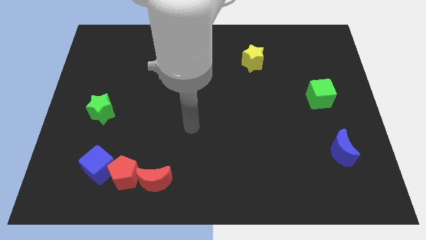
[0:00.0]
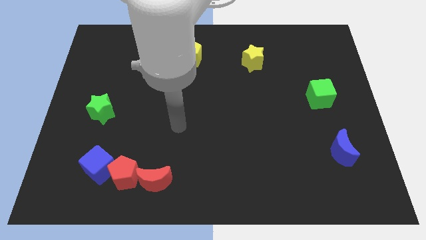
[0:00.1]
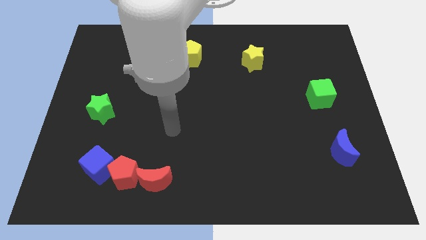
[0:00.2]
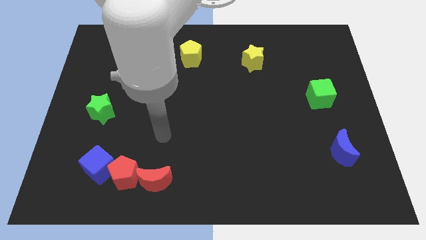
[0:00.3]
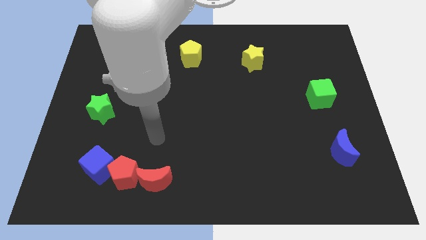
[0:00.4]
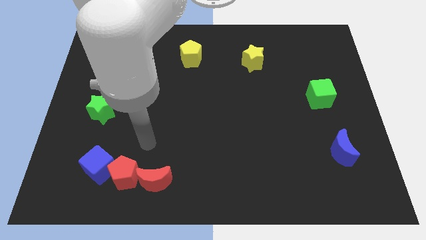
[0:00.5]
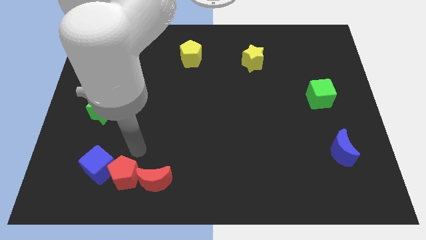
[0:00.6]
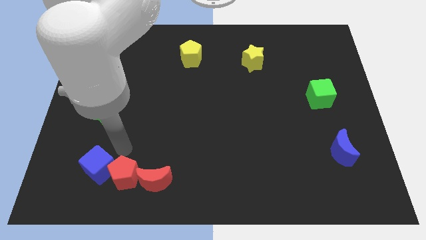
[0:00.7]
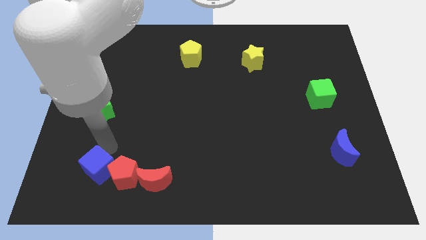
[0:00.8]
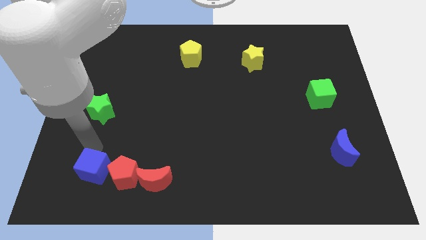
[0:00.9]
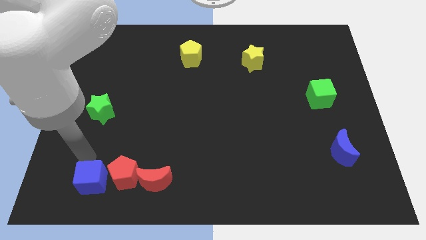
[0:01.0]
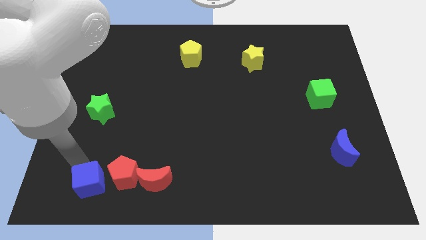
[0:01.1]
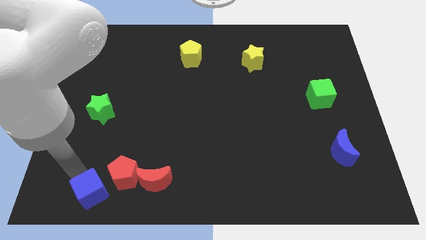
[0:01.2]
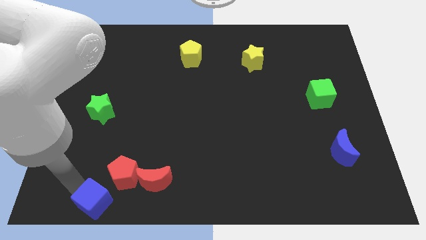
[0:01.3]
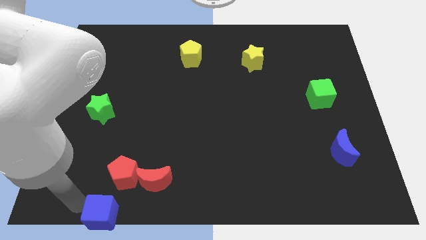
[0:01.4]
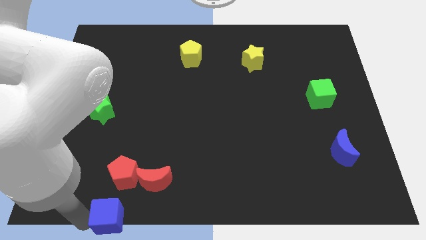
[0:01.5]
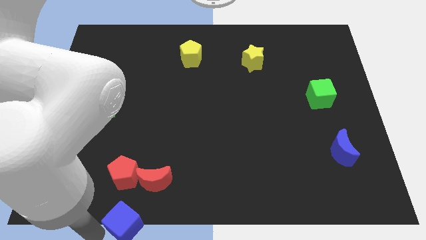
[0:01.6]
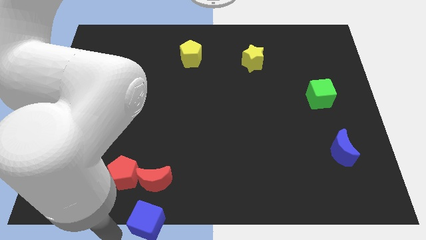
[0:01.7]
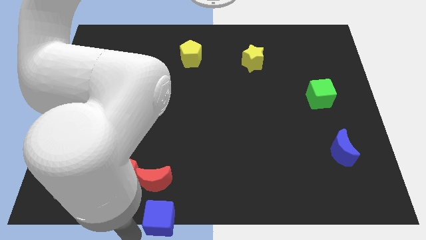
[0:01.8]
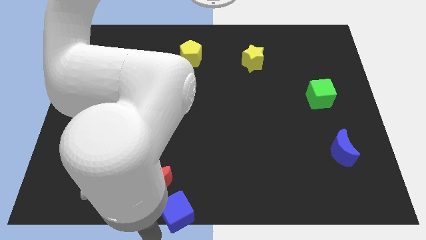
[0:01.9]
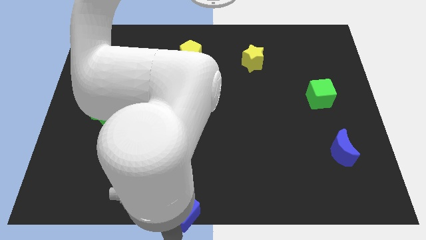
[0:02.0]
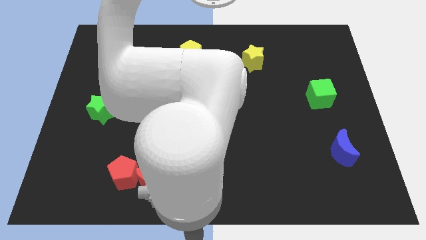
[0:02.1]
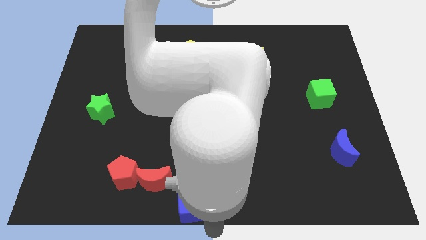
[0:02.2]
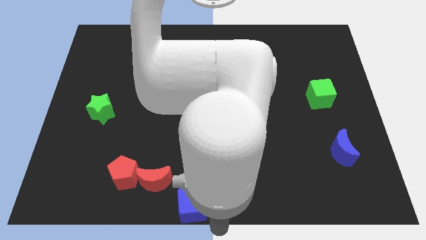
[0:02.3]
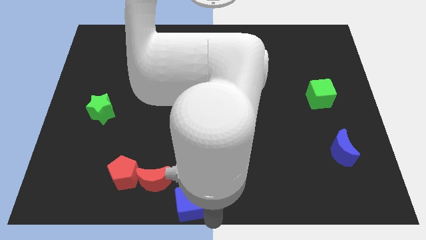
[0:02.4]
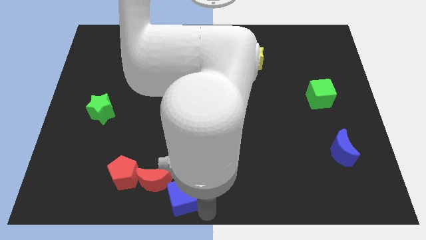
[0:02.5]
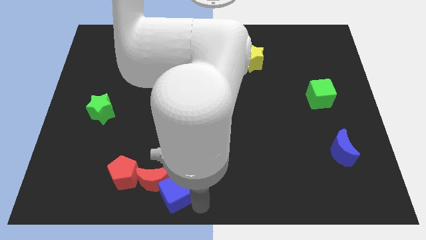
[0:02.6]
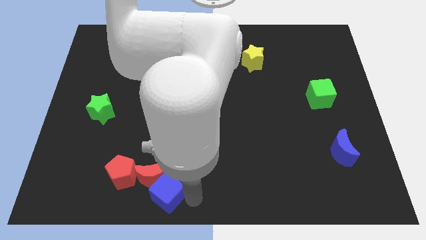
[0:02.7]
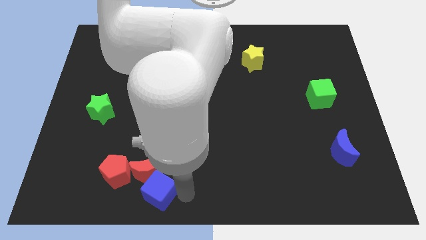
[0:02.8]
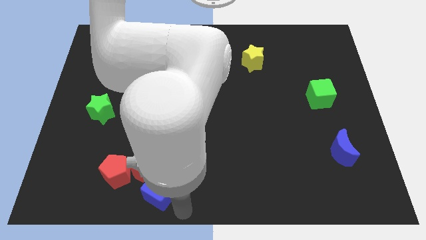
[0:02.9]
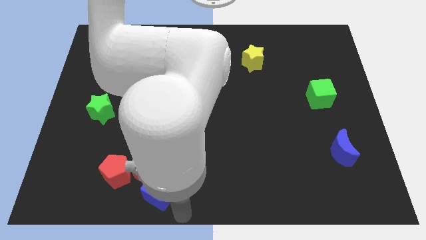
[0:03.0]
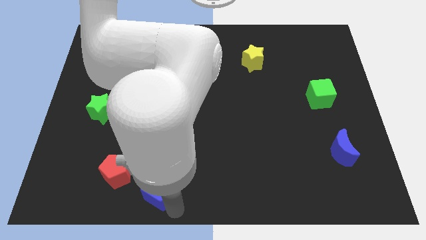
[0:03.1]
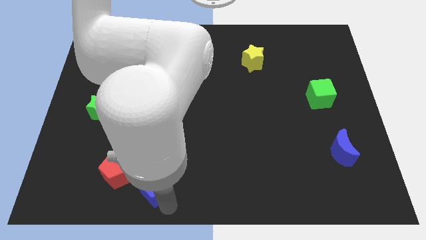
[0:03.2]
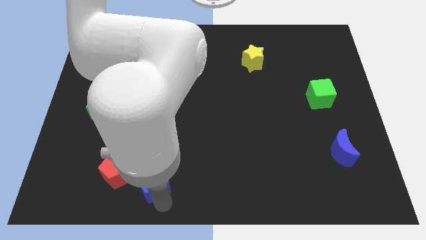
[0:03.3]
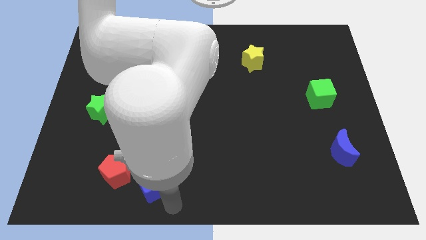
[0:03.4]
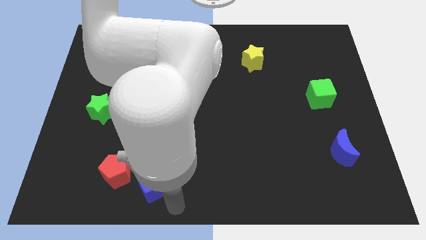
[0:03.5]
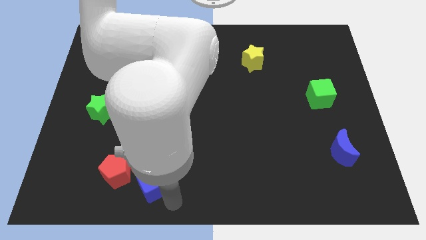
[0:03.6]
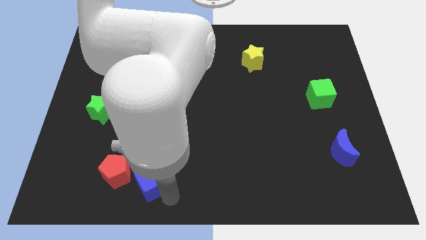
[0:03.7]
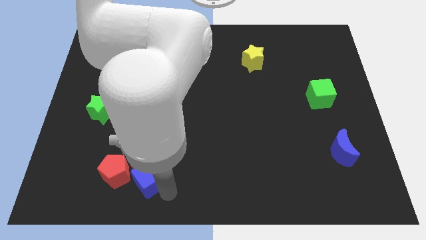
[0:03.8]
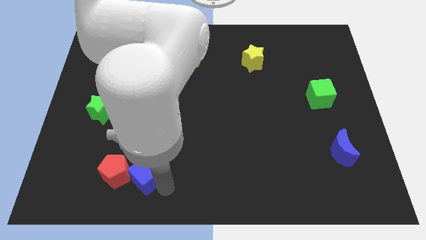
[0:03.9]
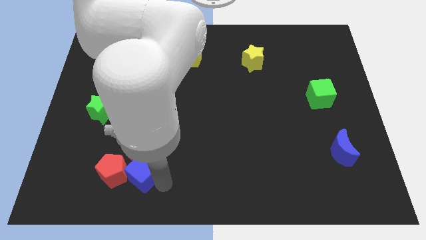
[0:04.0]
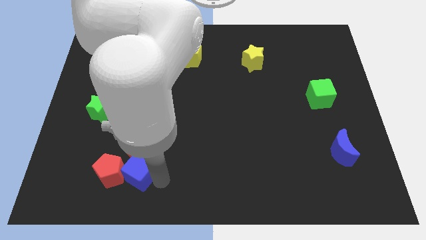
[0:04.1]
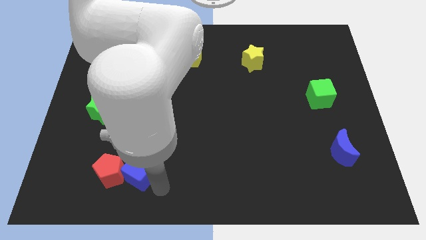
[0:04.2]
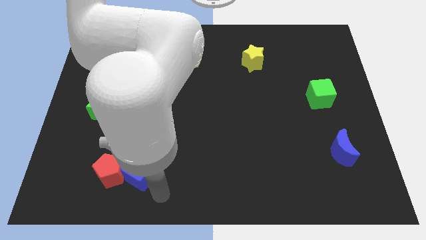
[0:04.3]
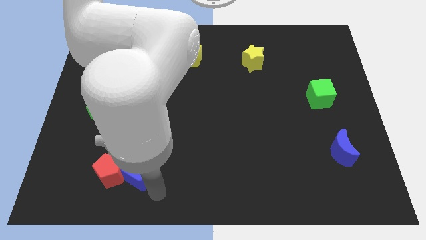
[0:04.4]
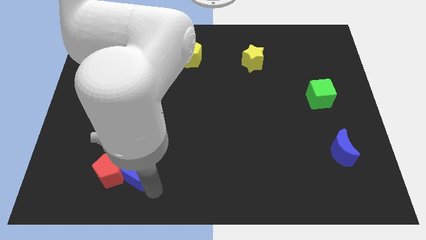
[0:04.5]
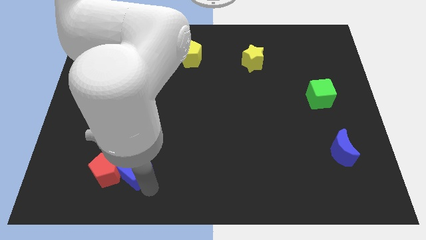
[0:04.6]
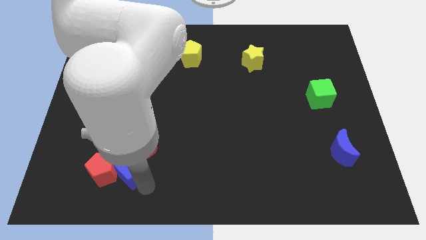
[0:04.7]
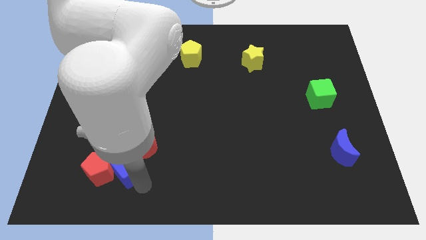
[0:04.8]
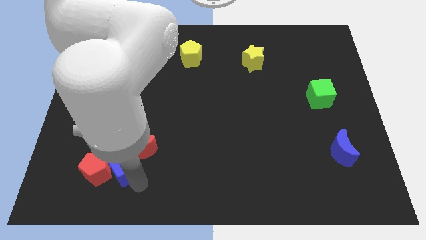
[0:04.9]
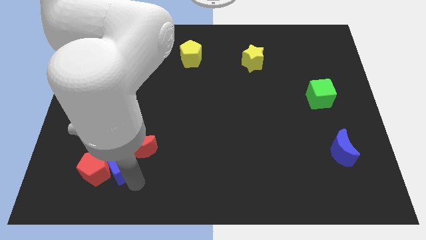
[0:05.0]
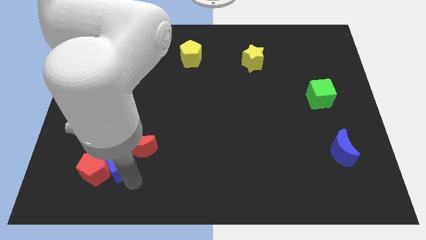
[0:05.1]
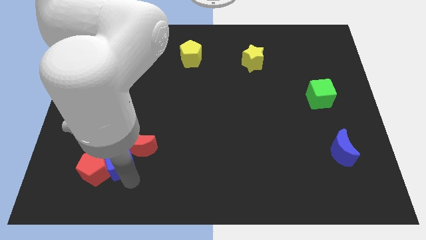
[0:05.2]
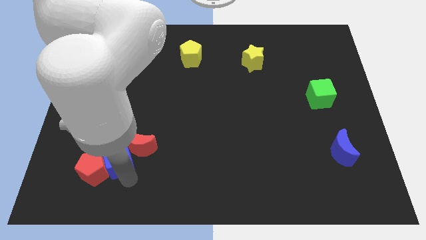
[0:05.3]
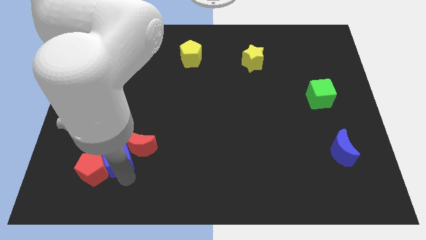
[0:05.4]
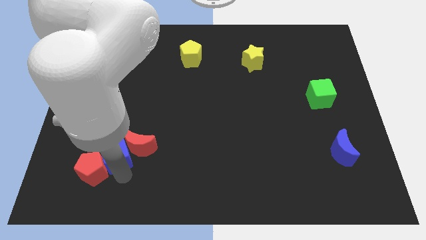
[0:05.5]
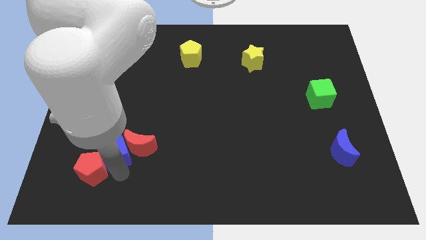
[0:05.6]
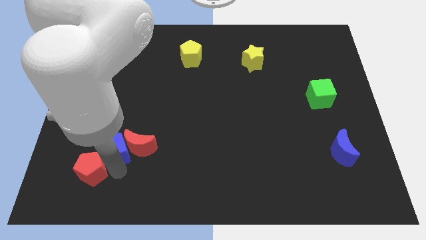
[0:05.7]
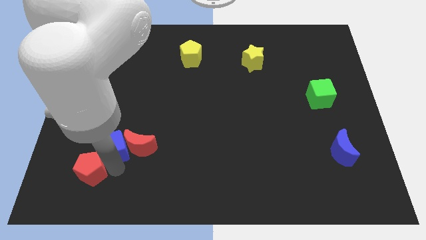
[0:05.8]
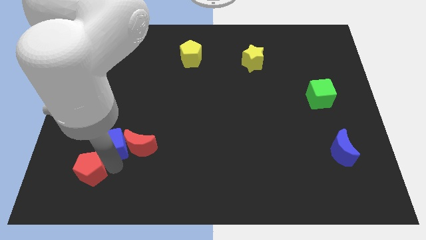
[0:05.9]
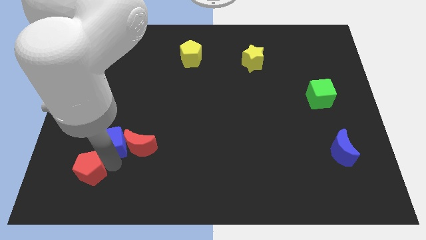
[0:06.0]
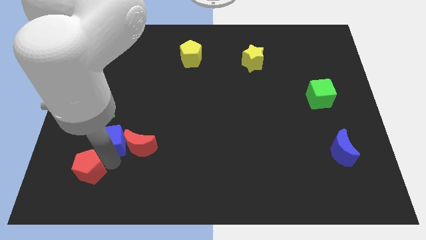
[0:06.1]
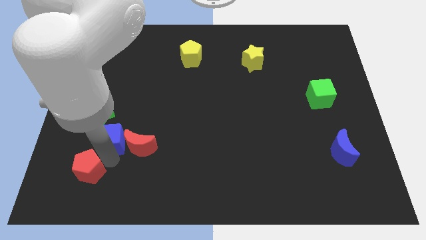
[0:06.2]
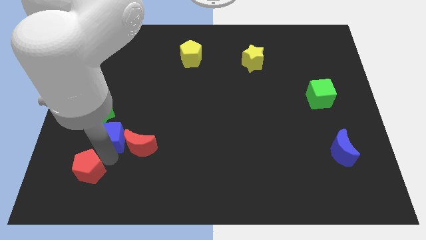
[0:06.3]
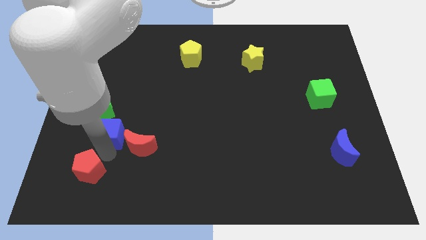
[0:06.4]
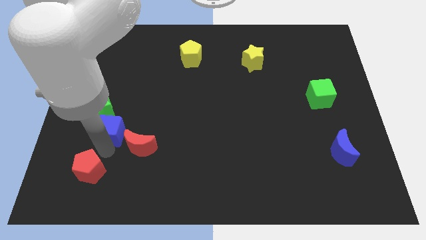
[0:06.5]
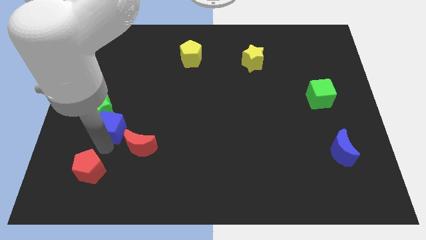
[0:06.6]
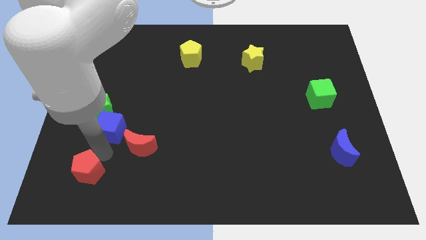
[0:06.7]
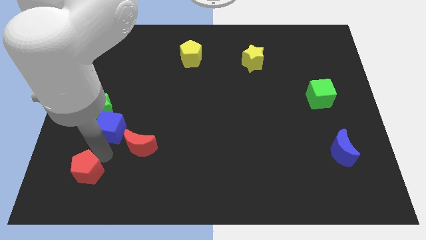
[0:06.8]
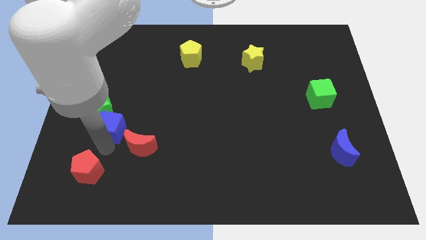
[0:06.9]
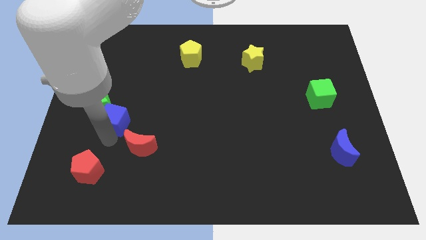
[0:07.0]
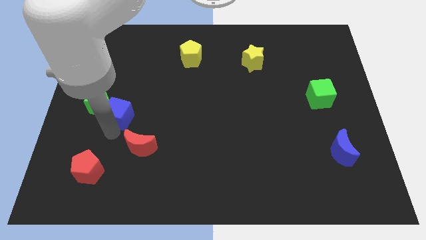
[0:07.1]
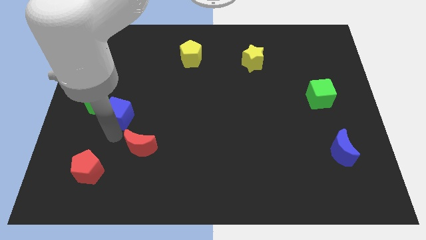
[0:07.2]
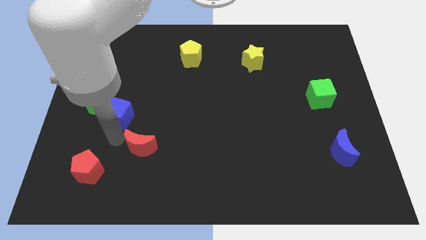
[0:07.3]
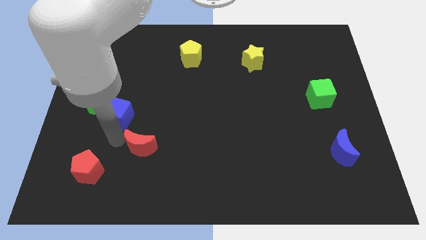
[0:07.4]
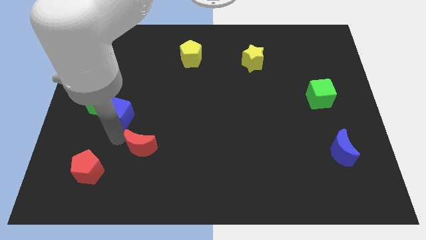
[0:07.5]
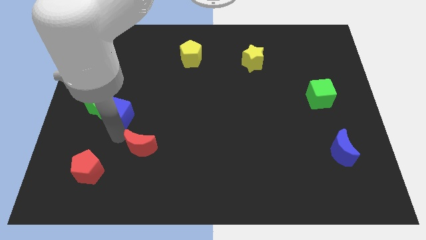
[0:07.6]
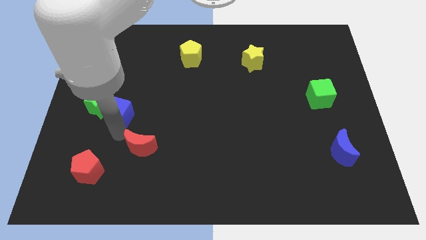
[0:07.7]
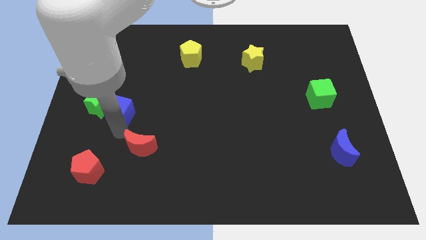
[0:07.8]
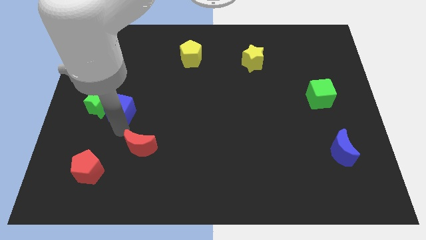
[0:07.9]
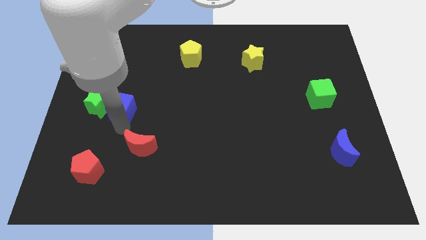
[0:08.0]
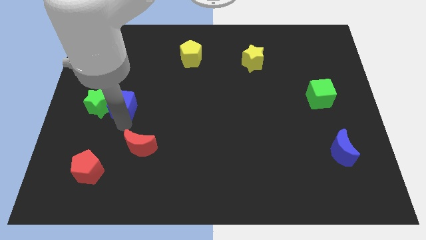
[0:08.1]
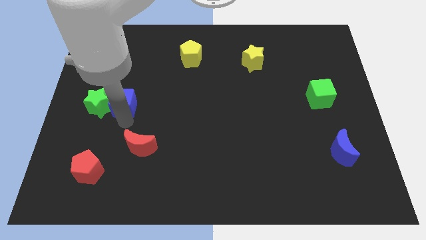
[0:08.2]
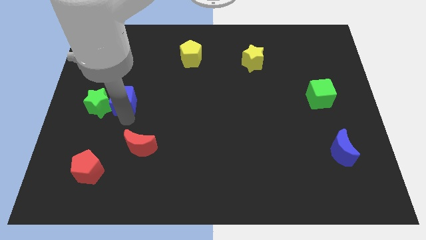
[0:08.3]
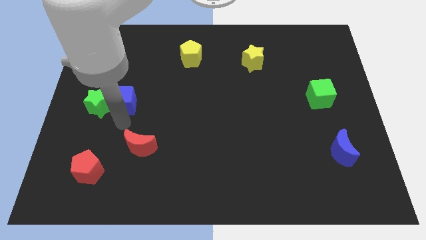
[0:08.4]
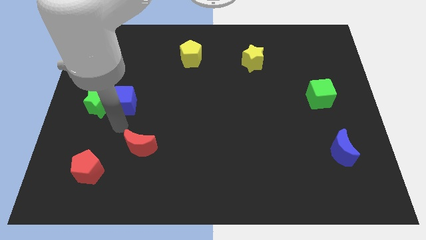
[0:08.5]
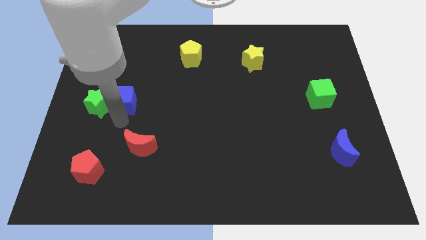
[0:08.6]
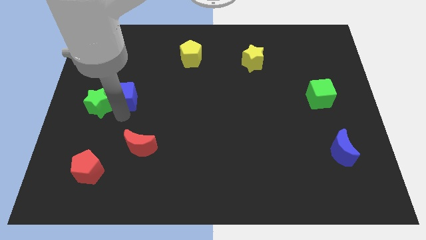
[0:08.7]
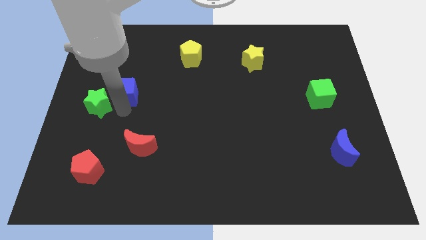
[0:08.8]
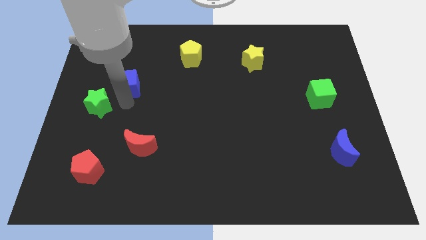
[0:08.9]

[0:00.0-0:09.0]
move the blue cube up
